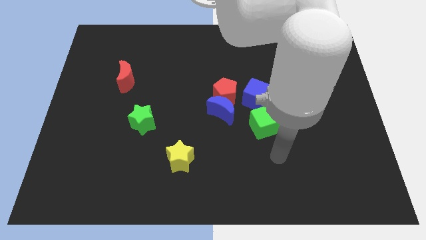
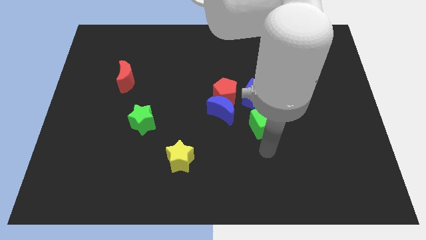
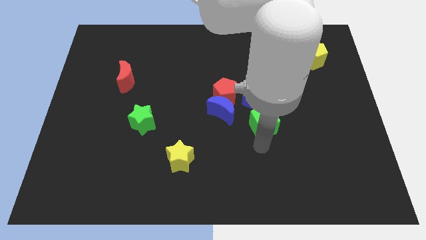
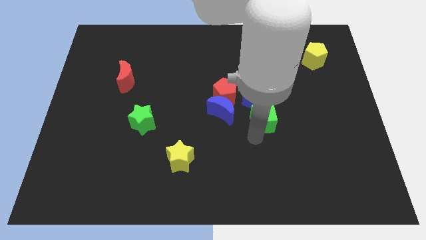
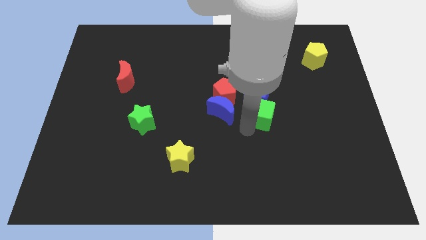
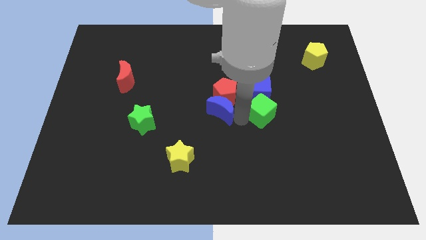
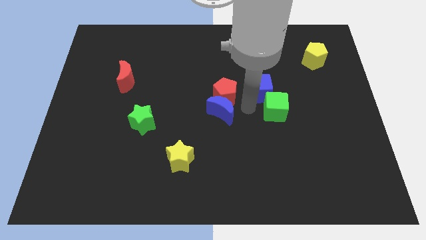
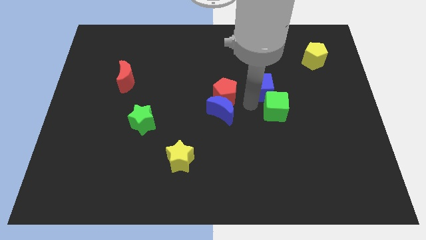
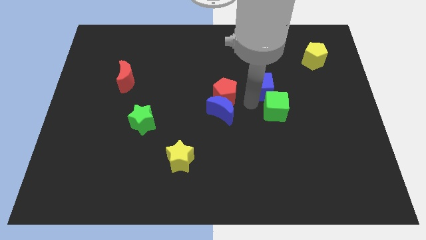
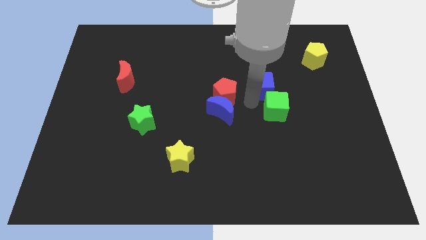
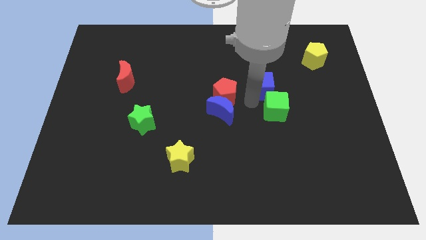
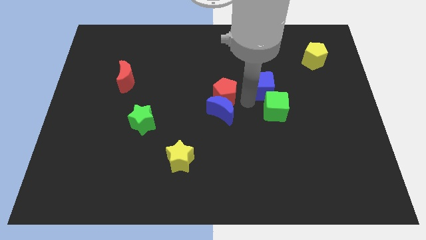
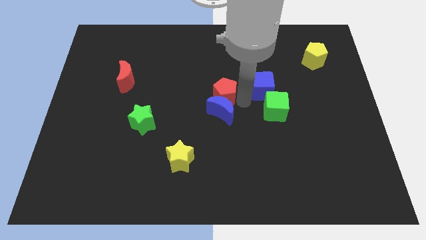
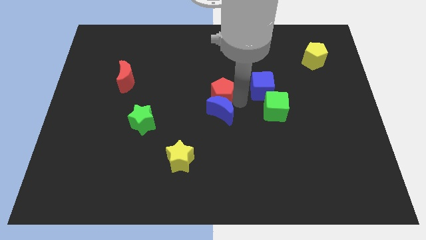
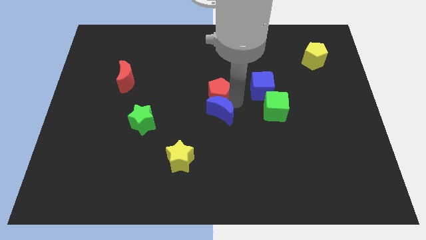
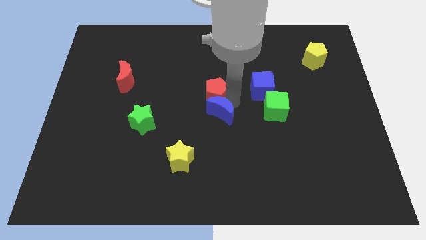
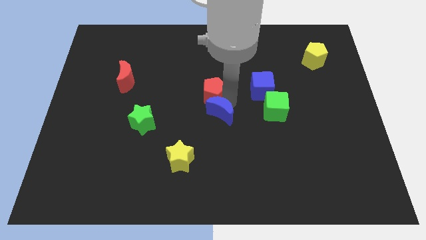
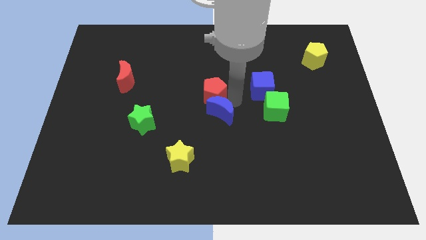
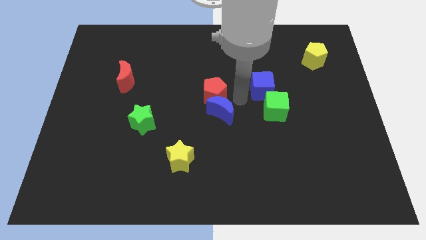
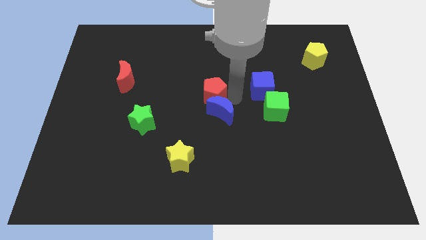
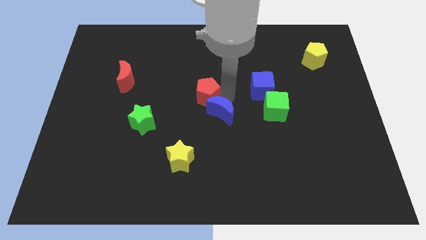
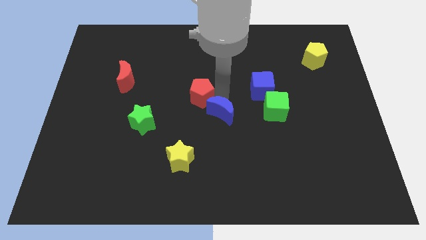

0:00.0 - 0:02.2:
separate the red pentagon from the blue moon and blue cube

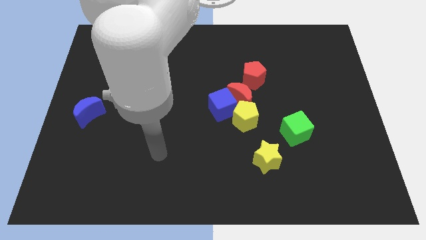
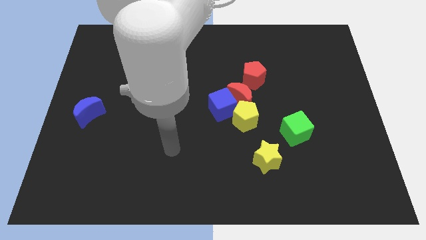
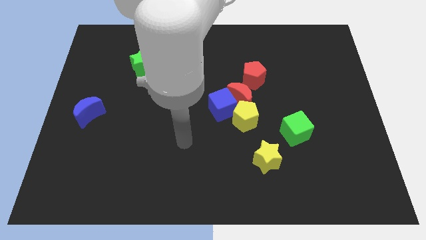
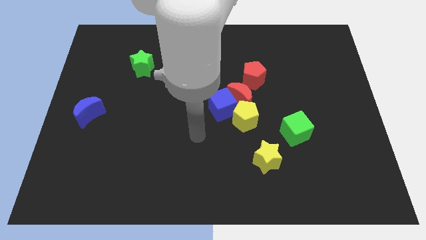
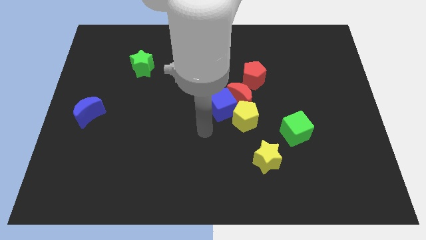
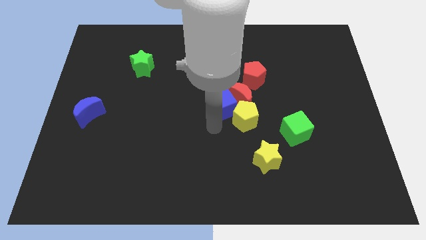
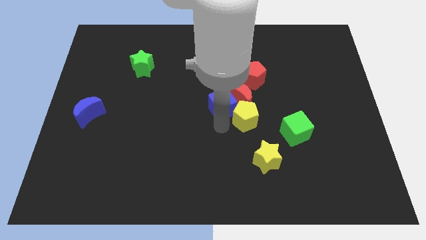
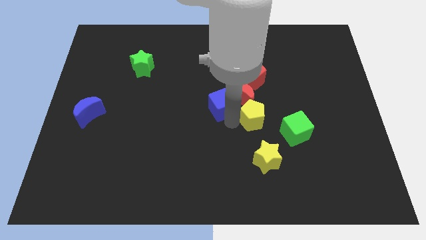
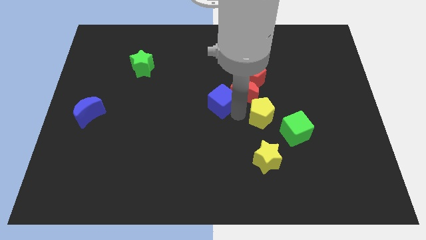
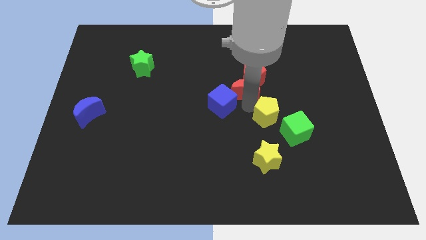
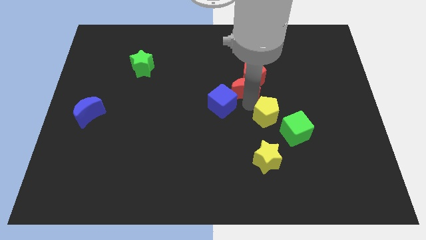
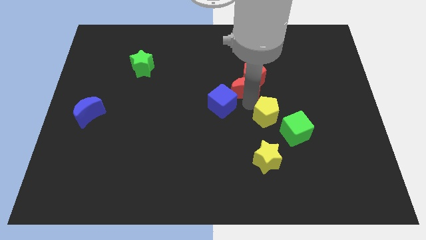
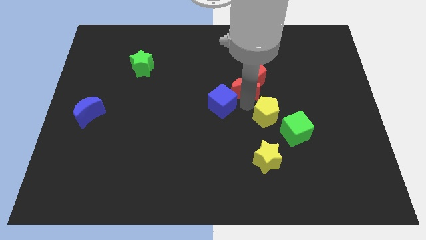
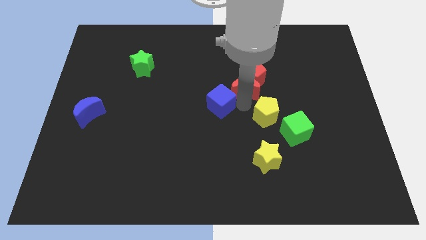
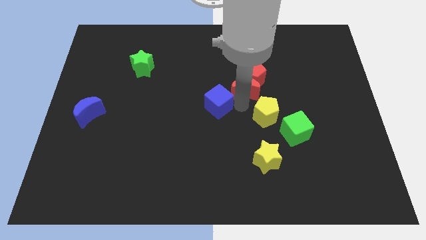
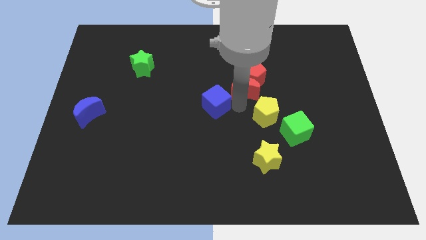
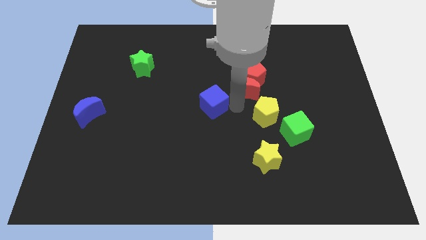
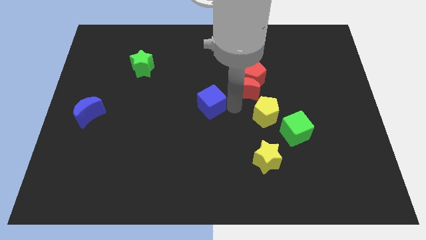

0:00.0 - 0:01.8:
pull the blue cube apart from the red moon and yellow pentagon

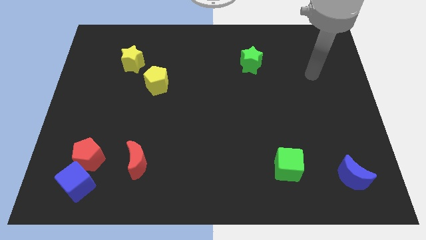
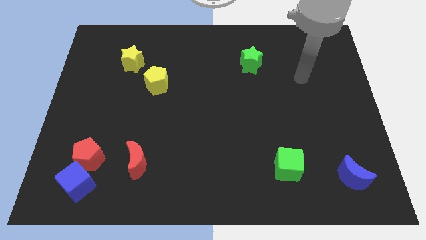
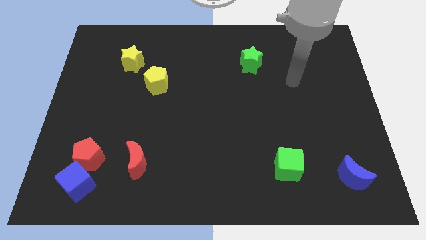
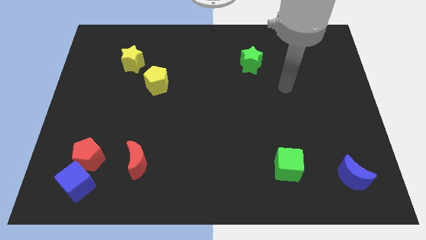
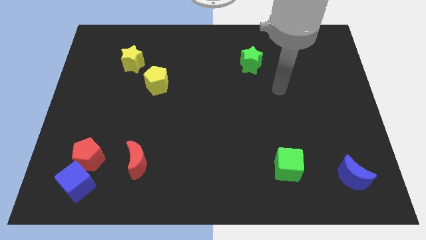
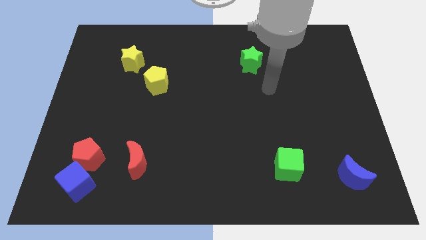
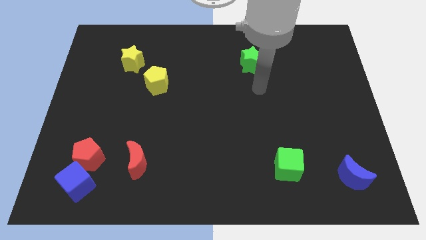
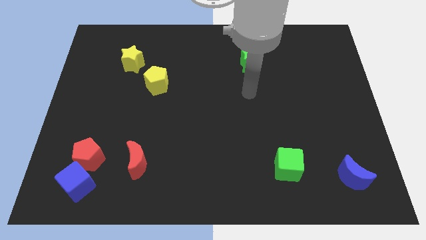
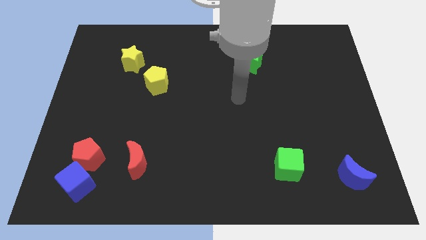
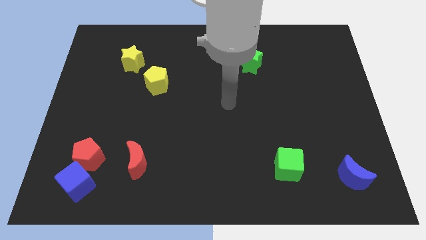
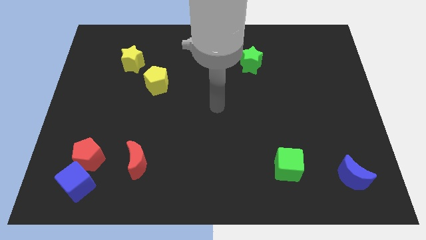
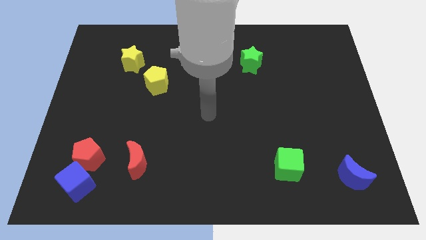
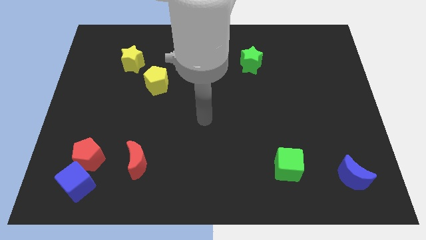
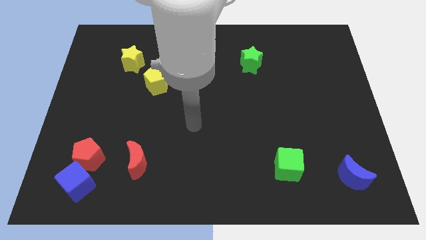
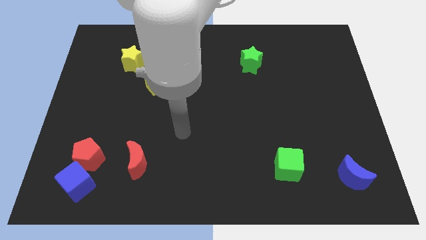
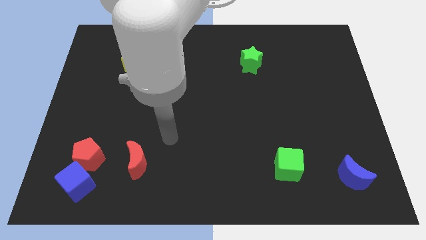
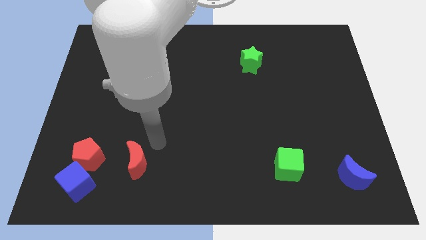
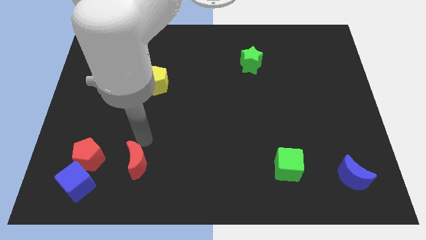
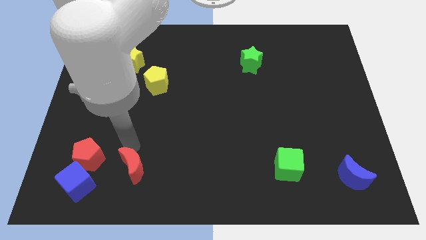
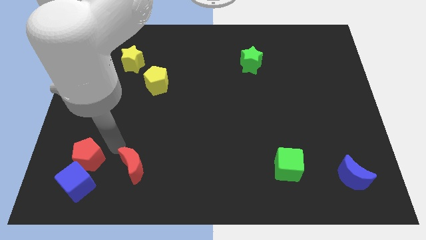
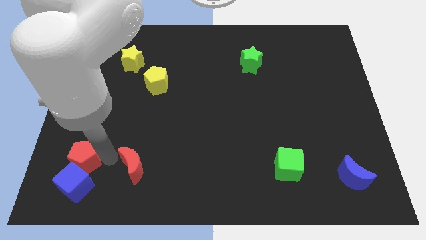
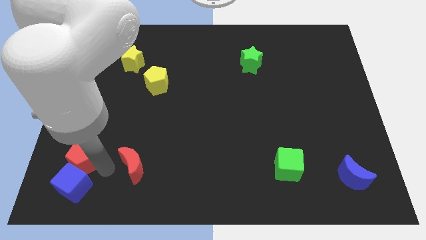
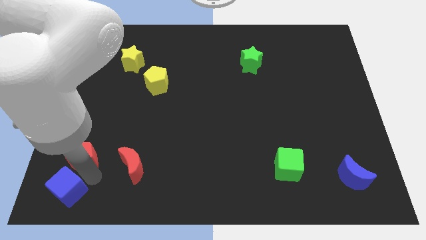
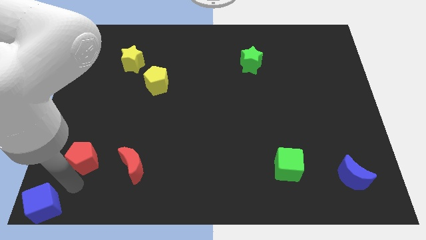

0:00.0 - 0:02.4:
separate the red pentagon from the blue cube

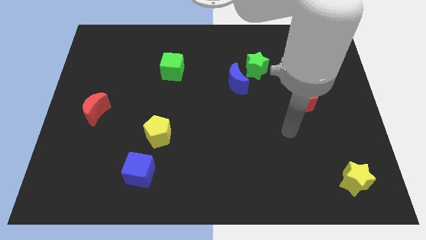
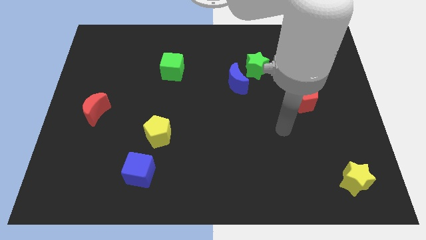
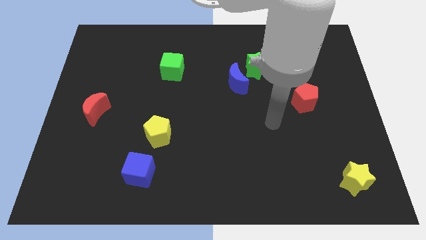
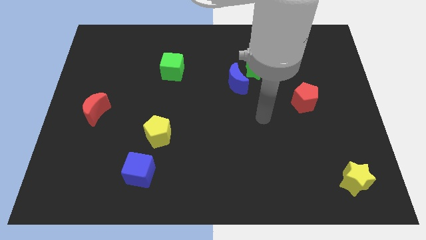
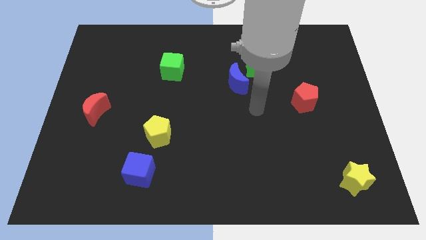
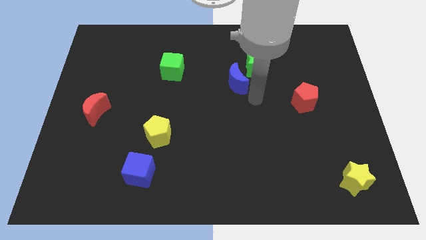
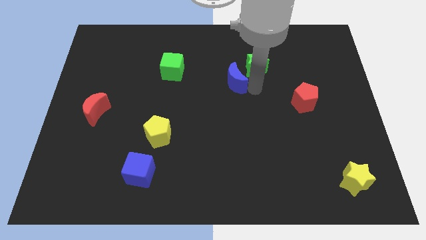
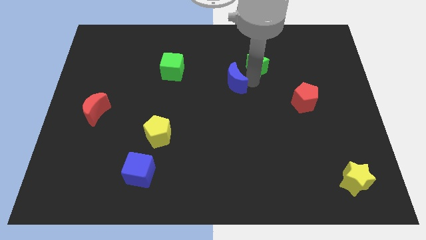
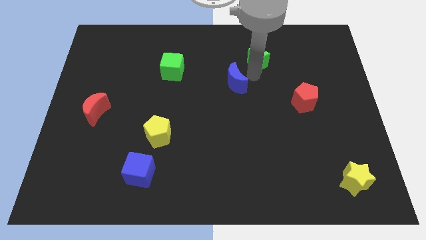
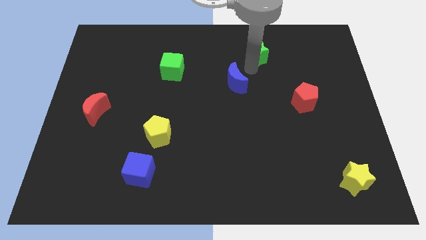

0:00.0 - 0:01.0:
pull the blue moon apart from the green star

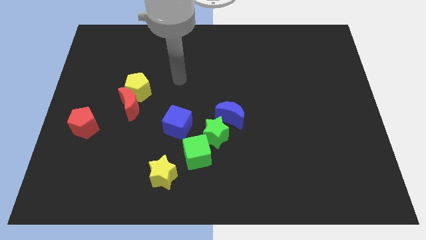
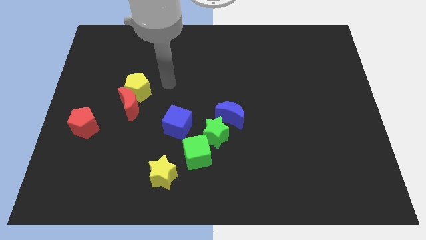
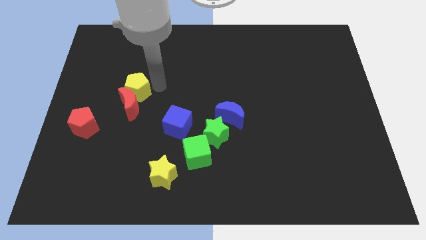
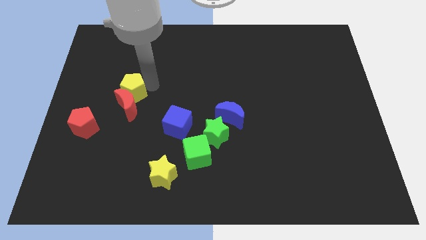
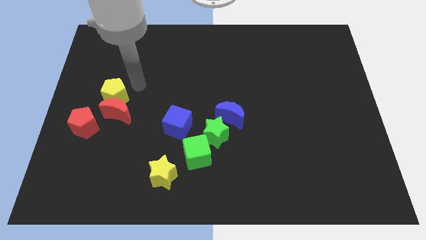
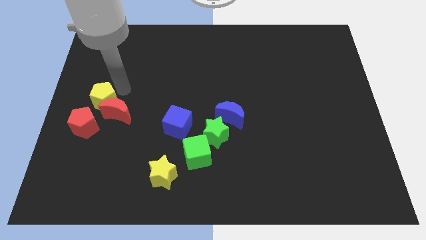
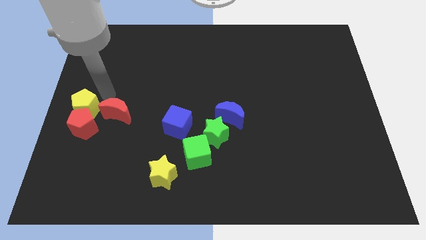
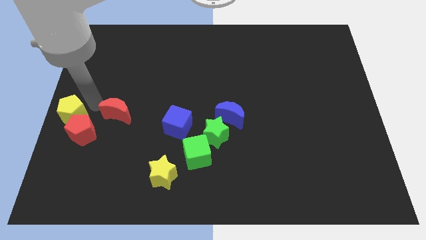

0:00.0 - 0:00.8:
pull the red moon apart from the yellow pentagon

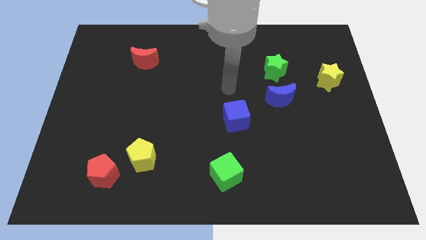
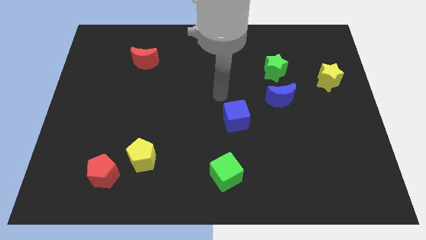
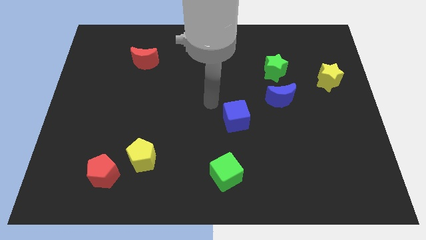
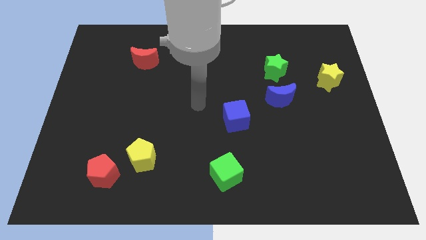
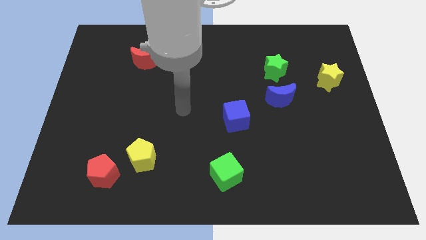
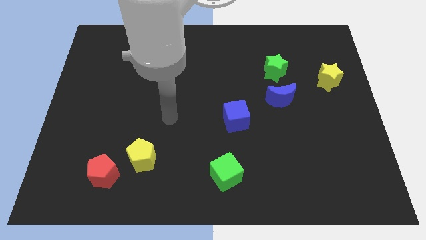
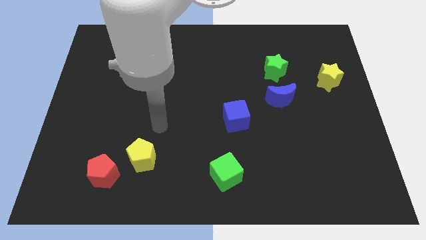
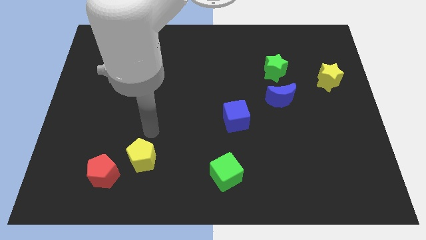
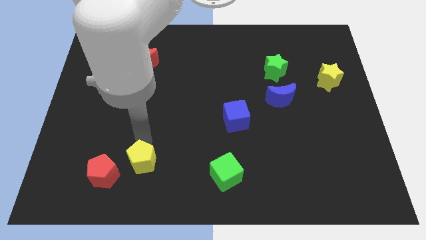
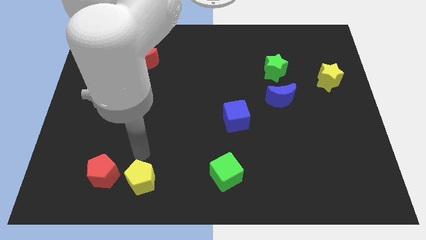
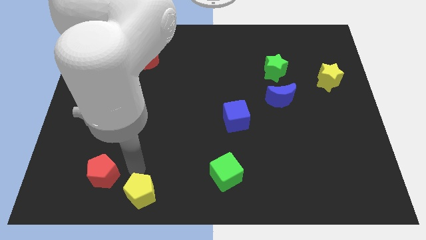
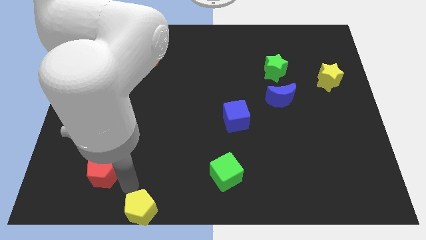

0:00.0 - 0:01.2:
move the red pentagon away from the yellow pentagon
